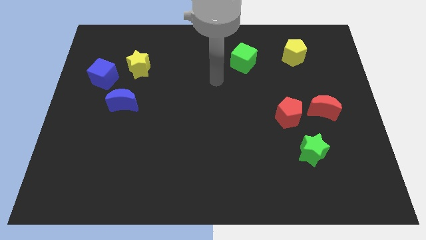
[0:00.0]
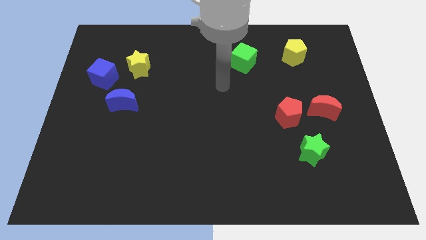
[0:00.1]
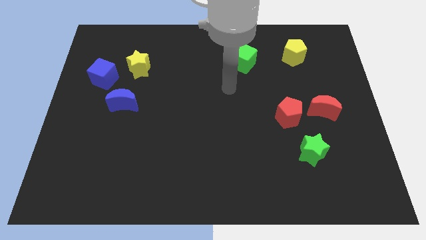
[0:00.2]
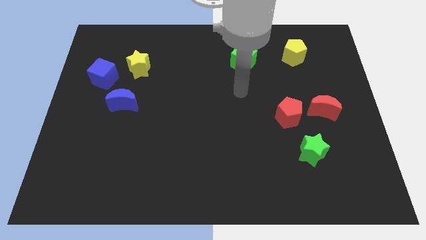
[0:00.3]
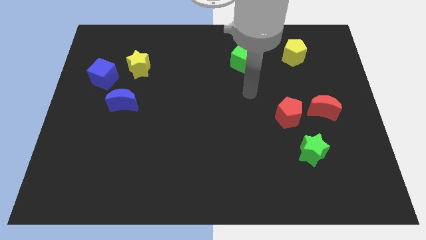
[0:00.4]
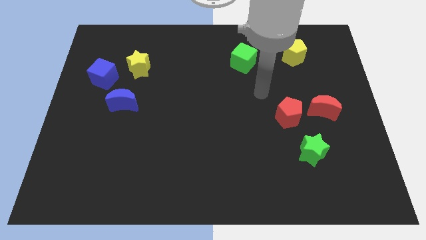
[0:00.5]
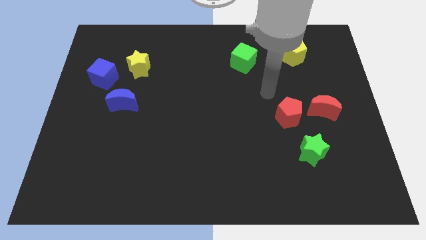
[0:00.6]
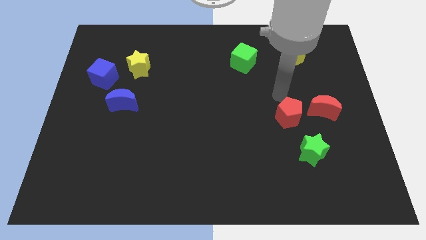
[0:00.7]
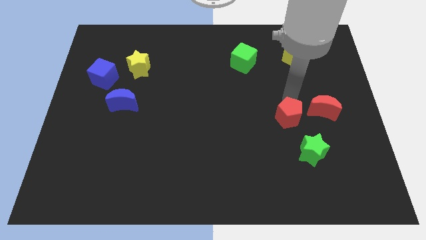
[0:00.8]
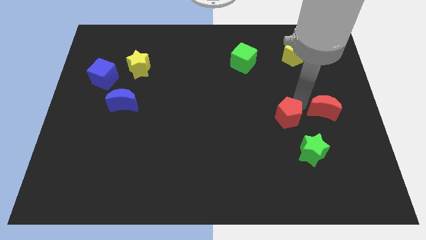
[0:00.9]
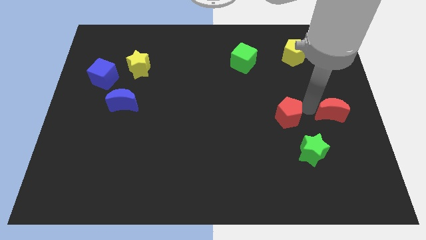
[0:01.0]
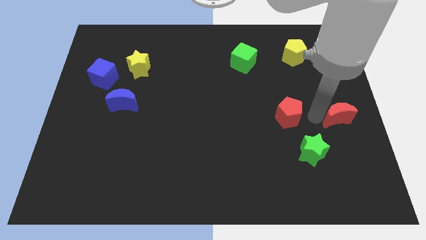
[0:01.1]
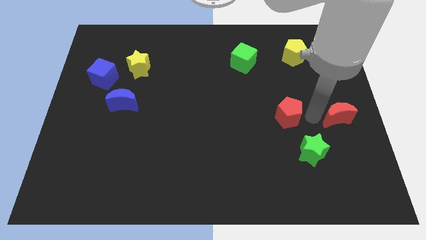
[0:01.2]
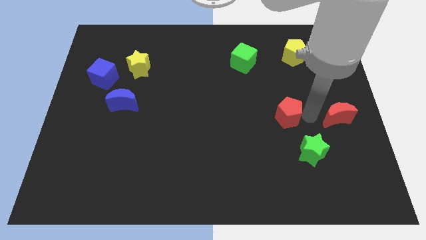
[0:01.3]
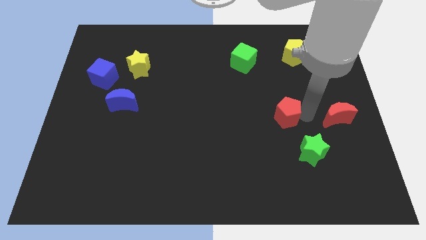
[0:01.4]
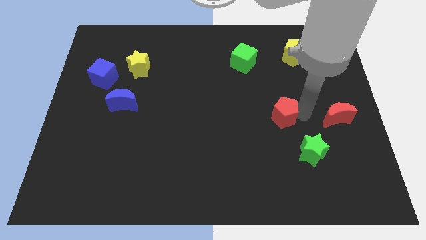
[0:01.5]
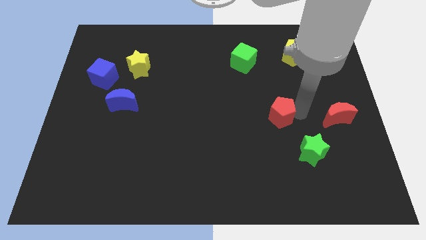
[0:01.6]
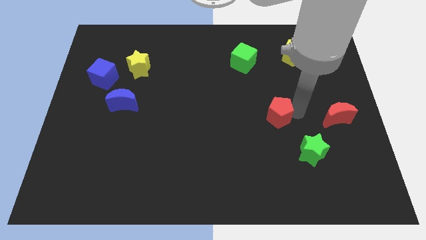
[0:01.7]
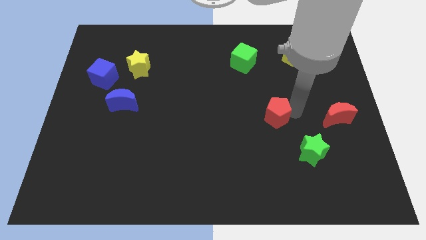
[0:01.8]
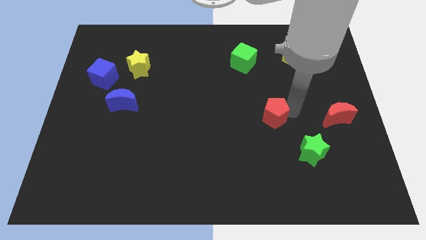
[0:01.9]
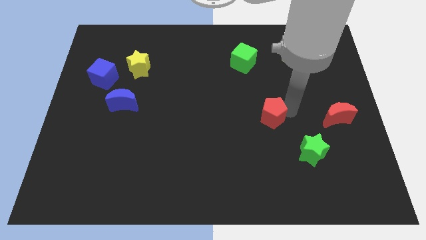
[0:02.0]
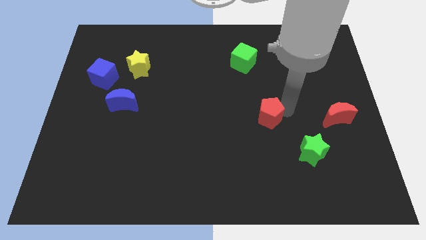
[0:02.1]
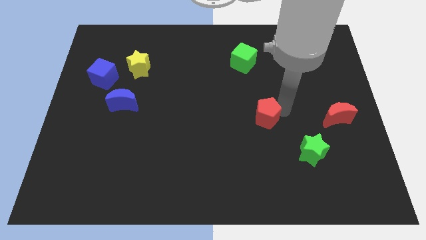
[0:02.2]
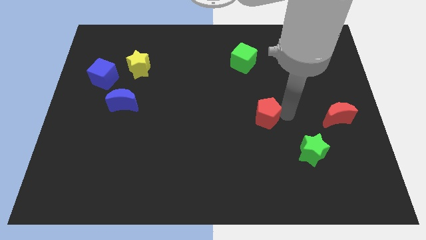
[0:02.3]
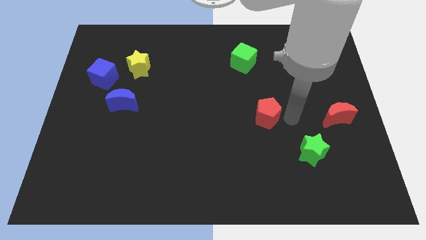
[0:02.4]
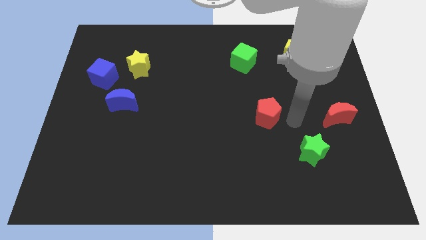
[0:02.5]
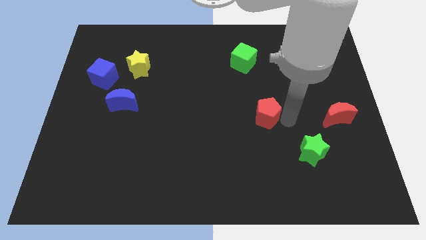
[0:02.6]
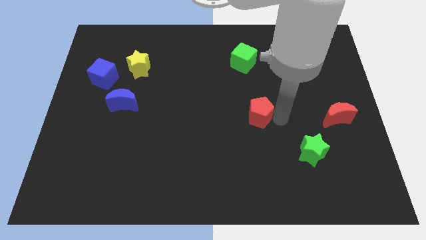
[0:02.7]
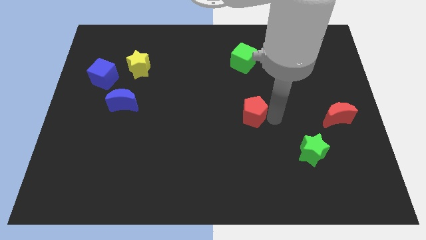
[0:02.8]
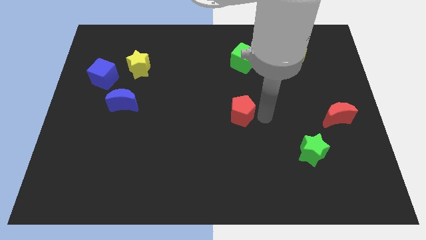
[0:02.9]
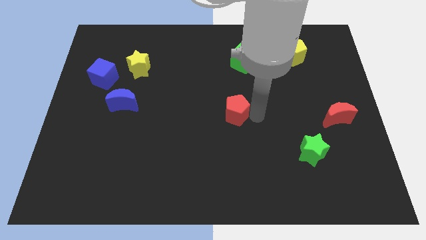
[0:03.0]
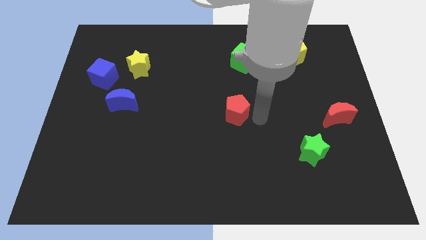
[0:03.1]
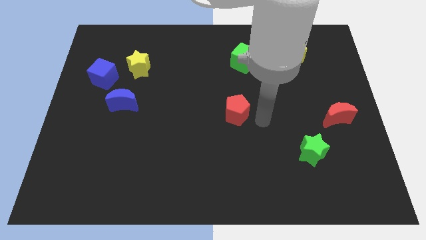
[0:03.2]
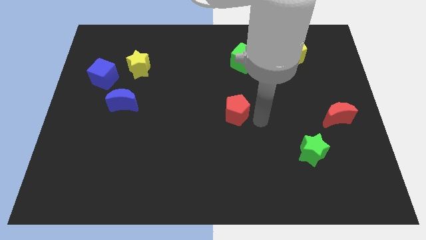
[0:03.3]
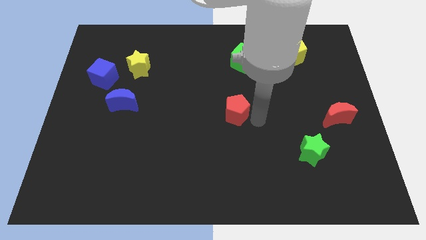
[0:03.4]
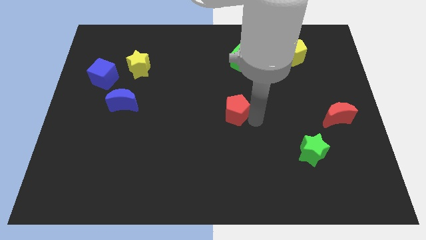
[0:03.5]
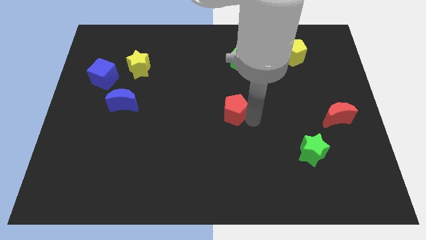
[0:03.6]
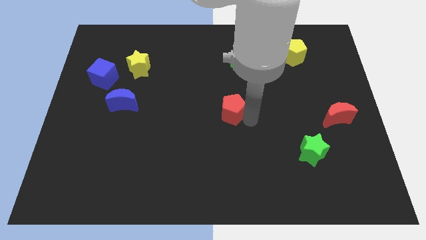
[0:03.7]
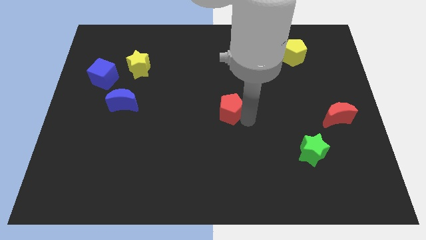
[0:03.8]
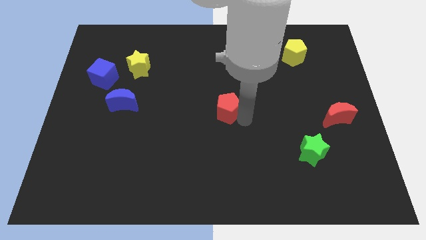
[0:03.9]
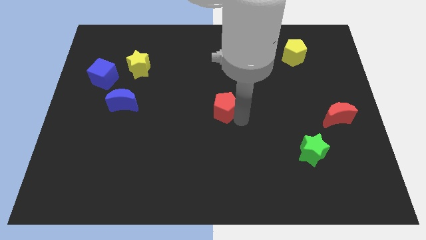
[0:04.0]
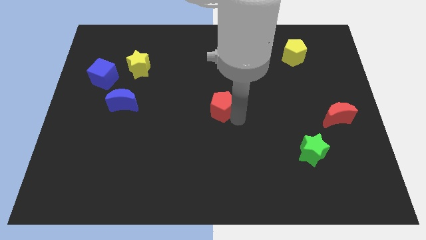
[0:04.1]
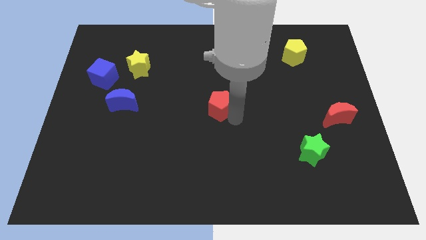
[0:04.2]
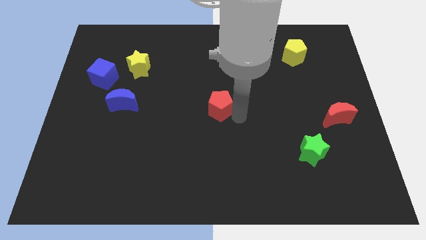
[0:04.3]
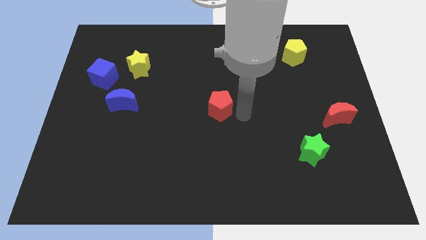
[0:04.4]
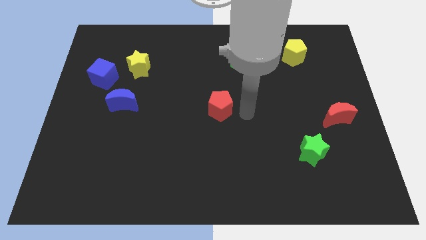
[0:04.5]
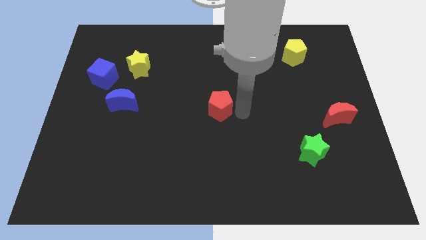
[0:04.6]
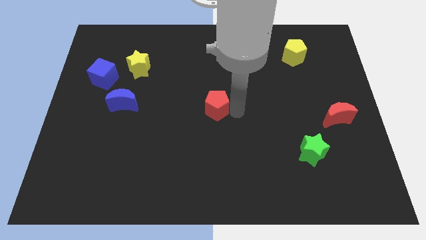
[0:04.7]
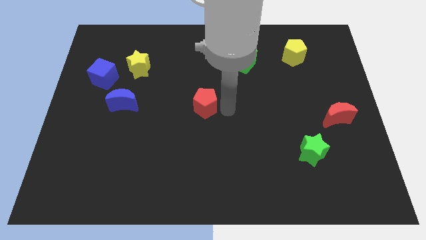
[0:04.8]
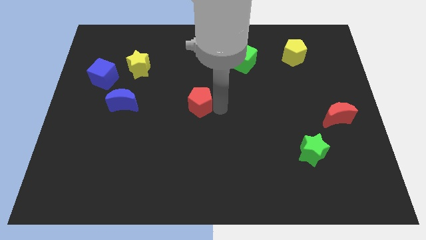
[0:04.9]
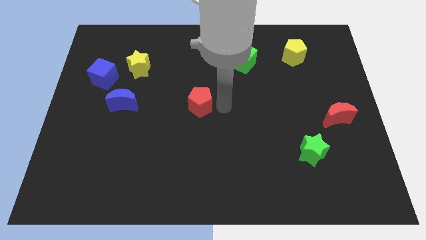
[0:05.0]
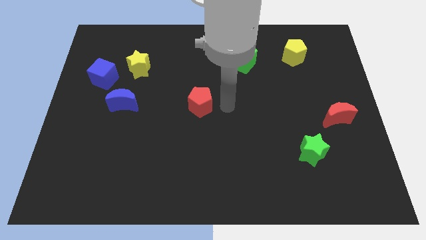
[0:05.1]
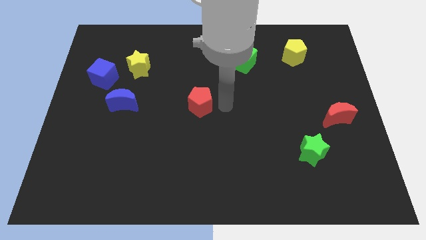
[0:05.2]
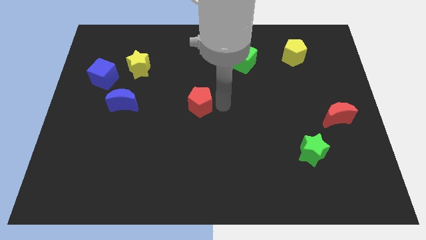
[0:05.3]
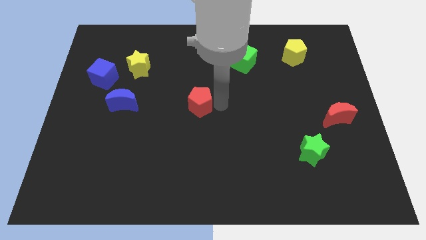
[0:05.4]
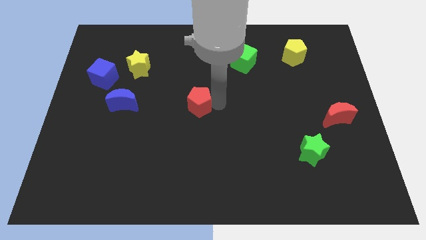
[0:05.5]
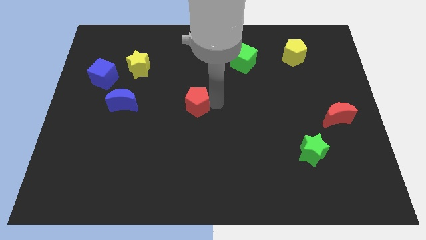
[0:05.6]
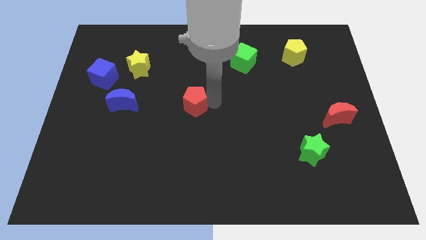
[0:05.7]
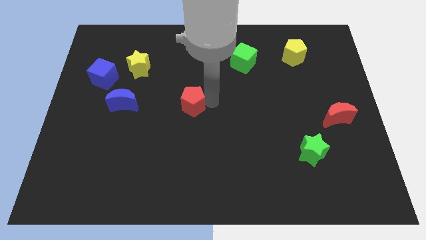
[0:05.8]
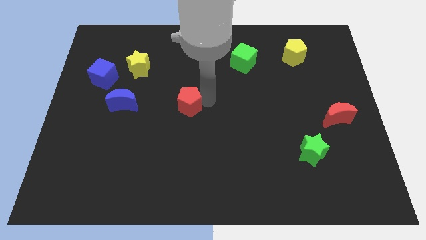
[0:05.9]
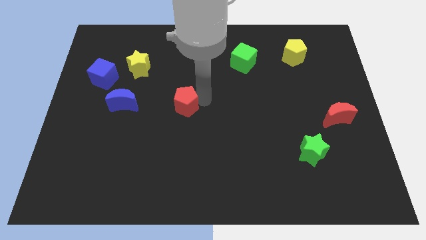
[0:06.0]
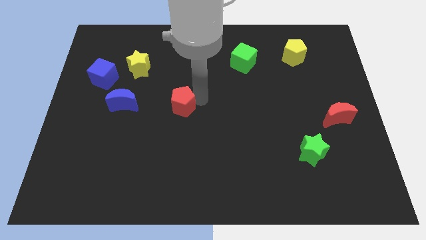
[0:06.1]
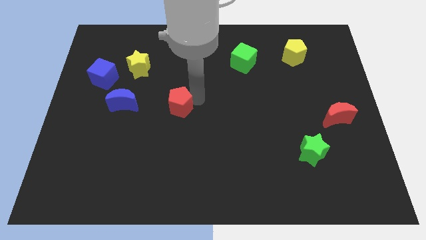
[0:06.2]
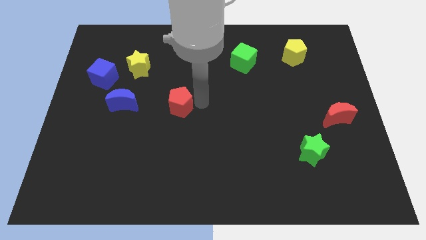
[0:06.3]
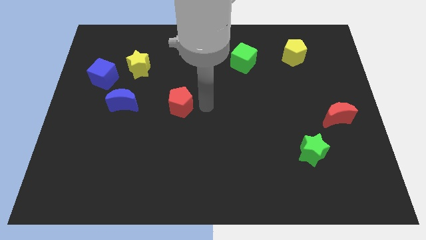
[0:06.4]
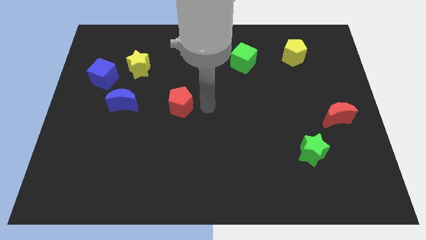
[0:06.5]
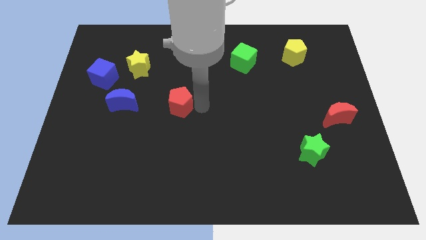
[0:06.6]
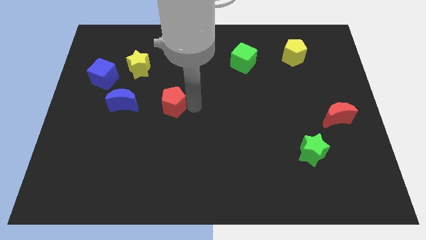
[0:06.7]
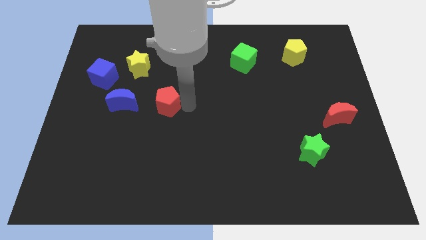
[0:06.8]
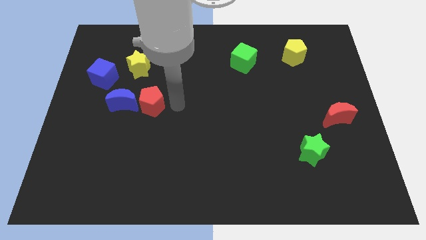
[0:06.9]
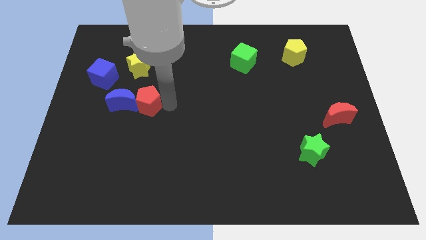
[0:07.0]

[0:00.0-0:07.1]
move the red pentagon towards the blue moon
